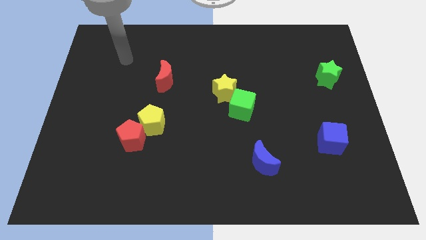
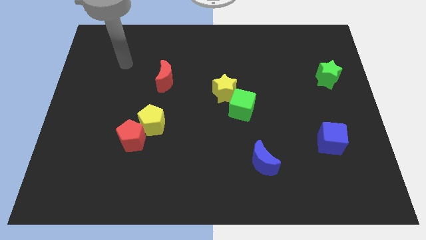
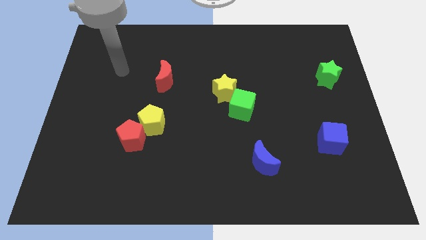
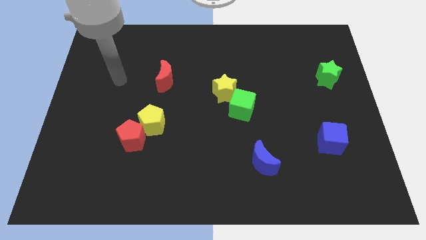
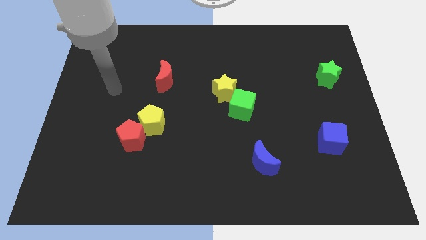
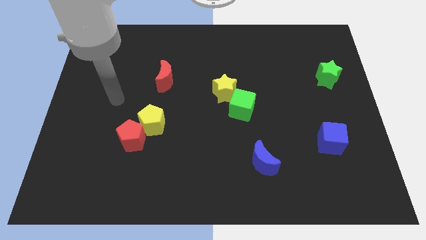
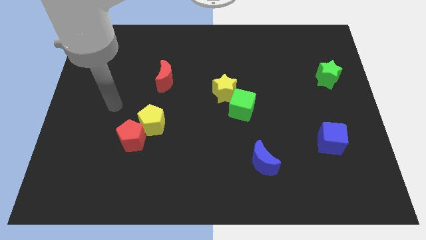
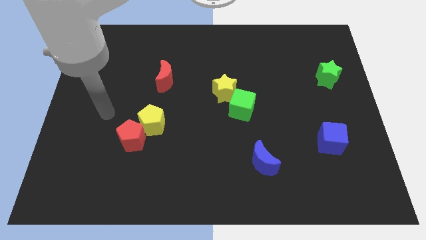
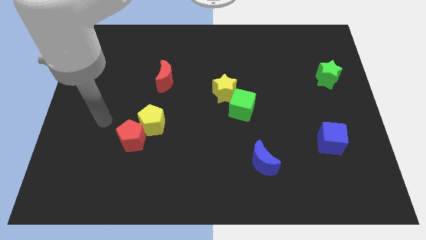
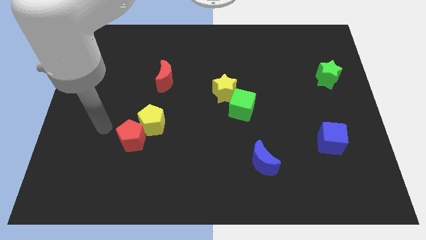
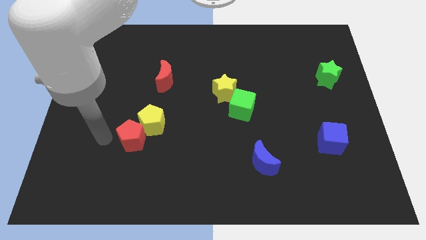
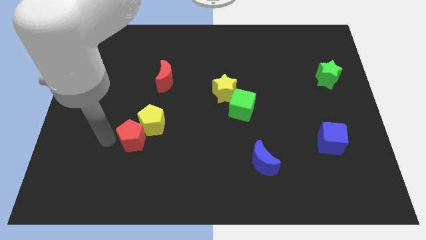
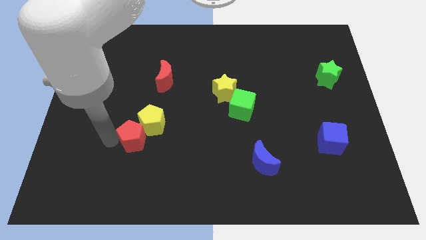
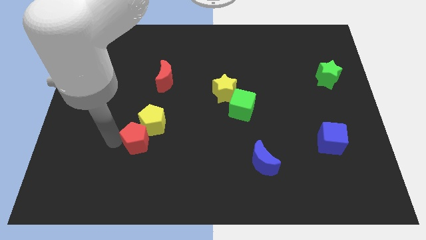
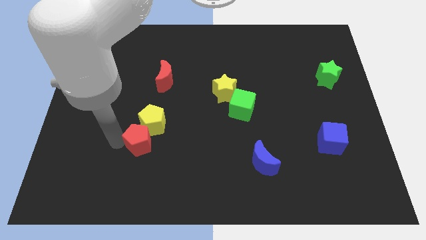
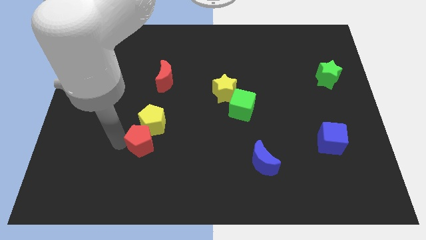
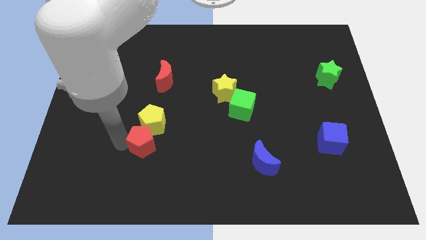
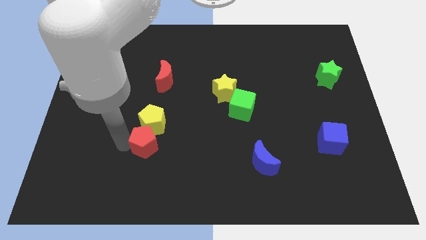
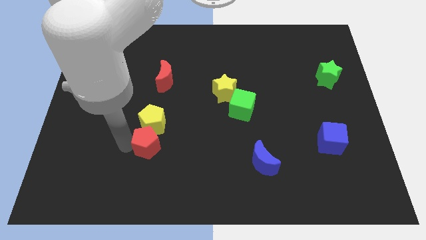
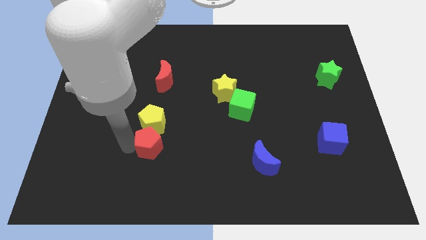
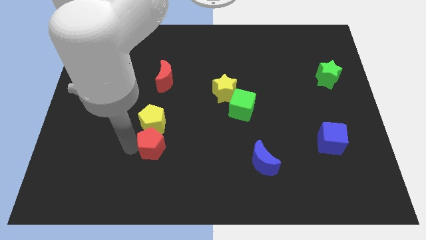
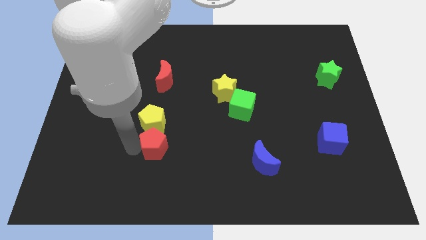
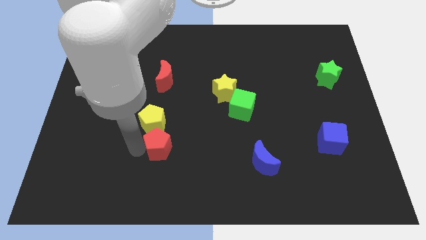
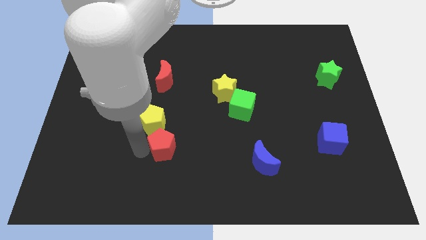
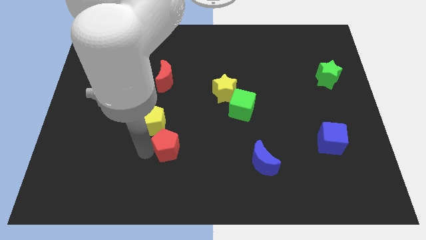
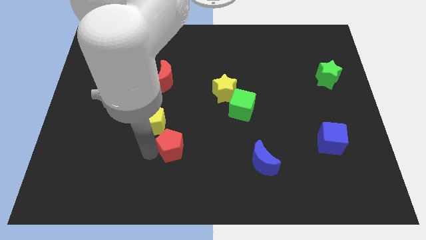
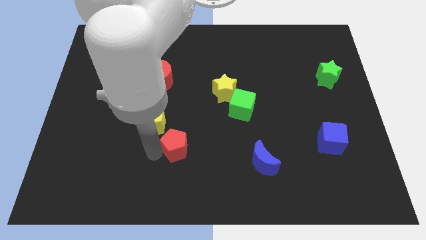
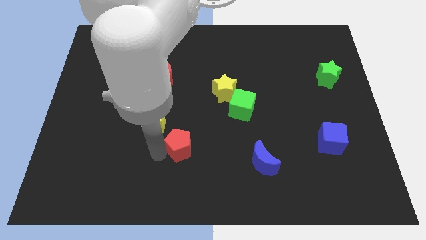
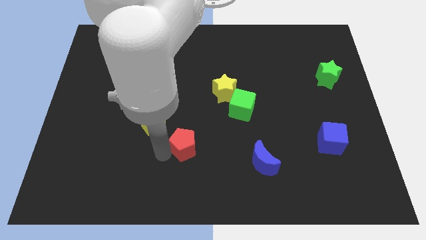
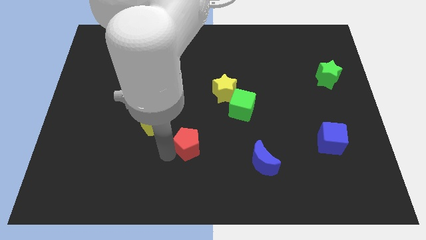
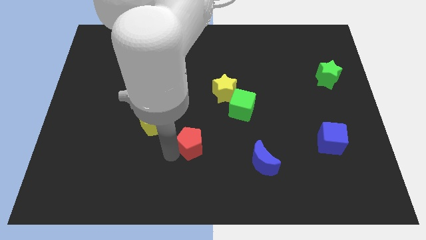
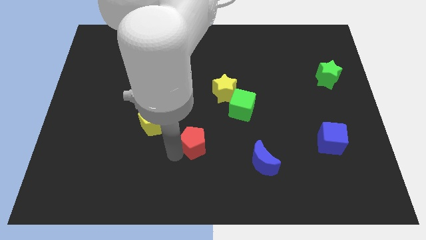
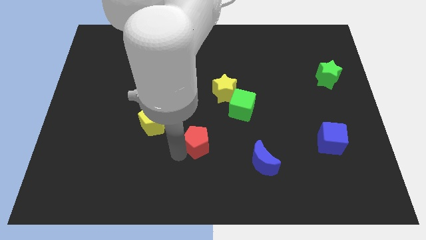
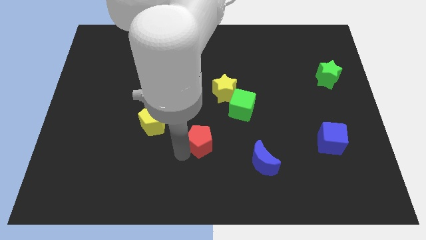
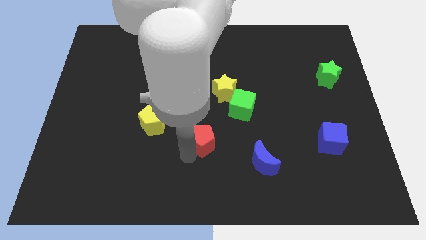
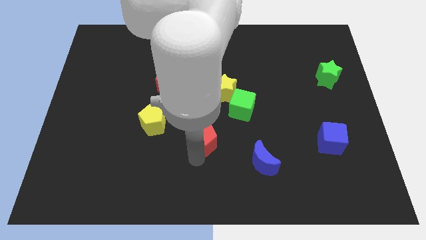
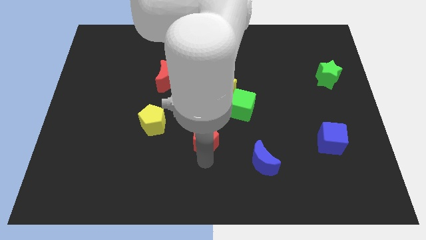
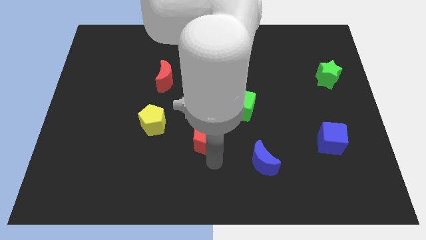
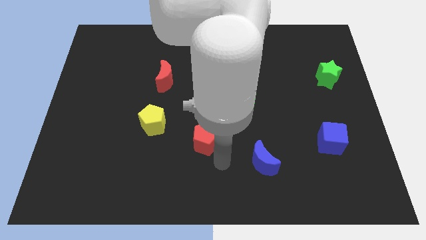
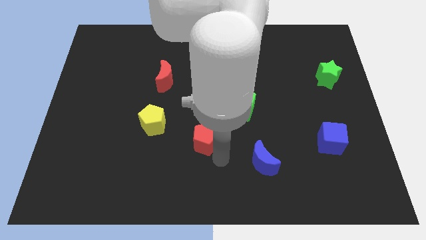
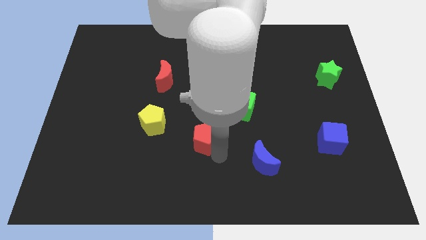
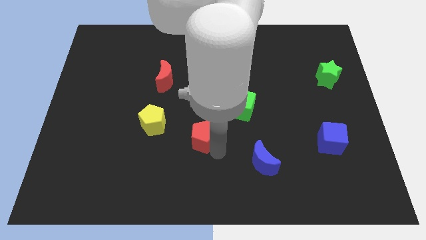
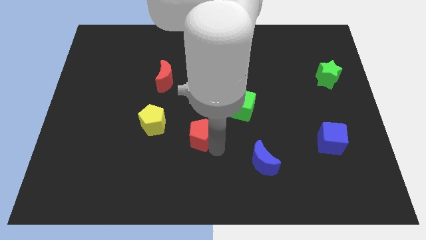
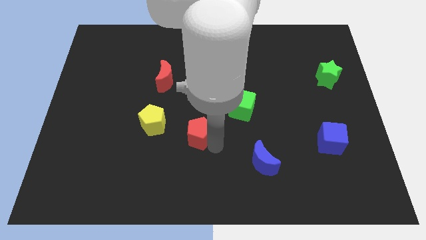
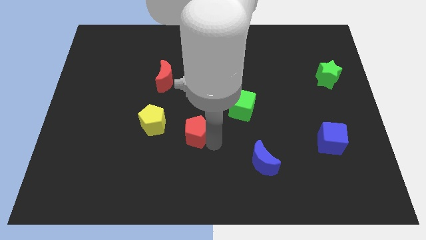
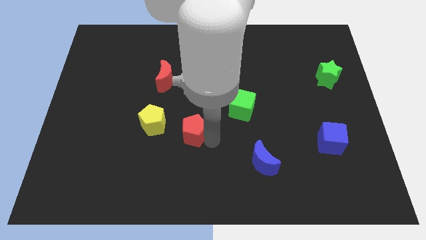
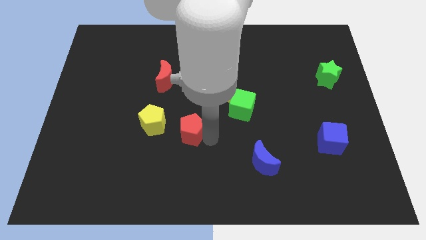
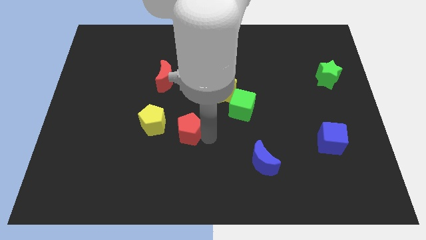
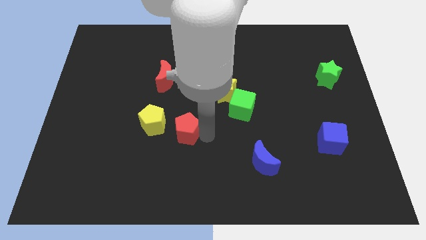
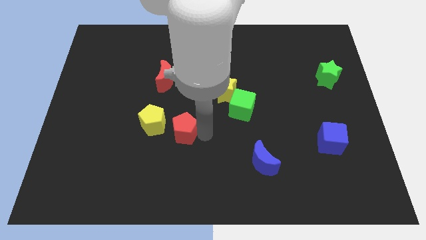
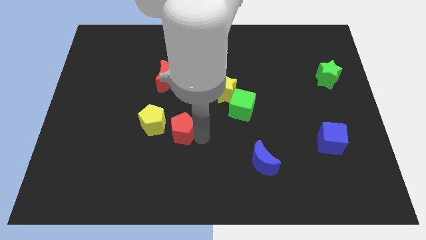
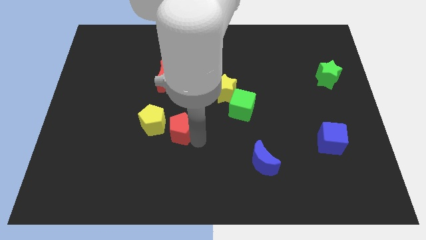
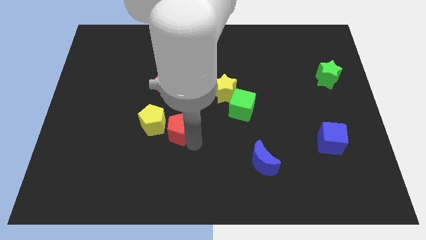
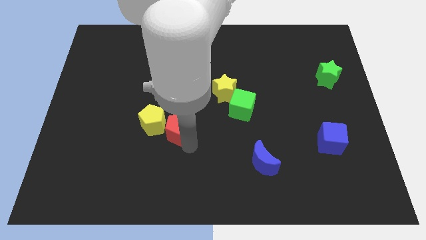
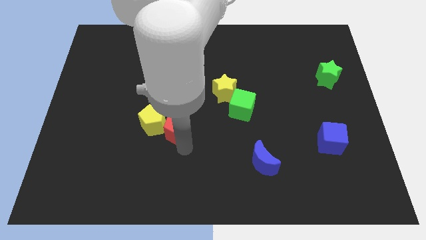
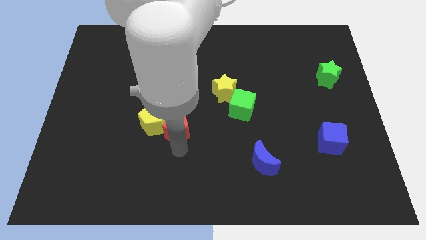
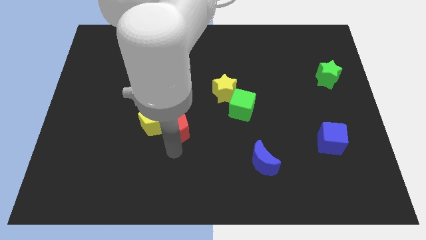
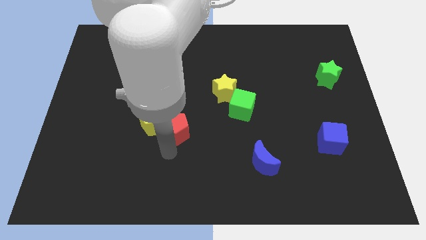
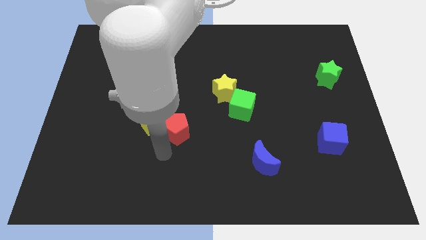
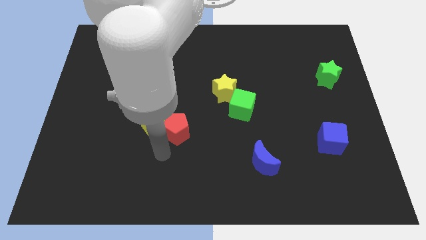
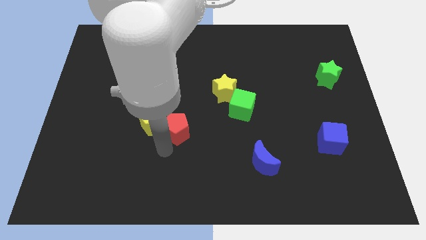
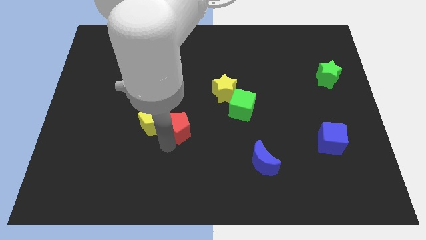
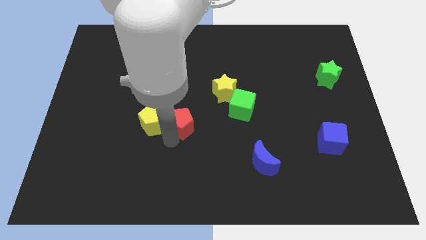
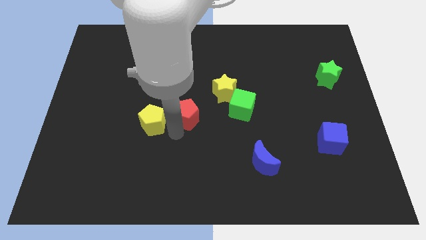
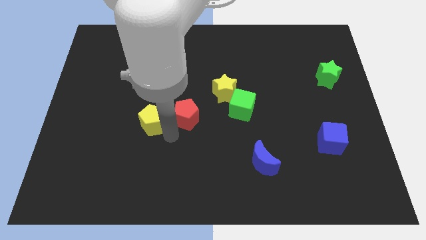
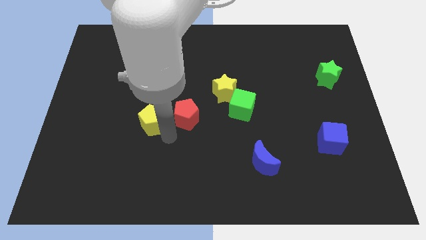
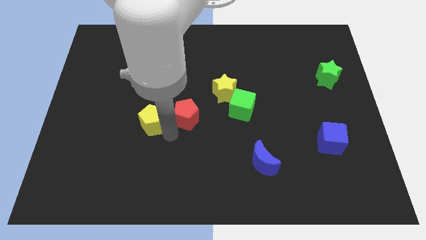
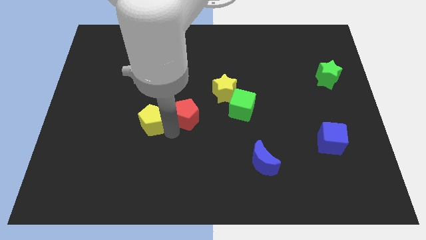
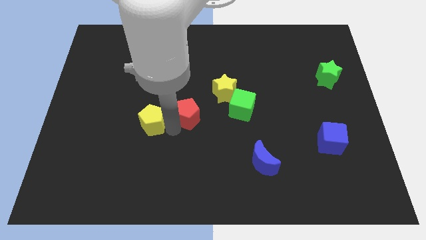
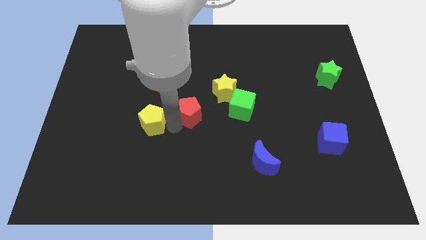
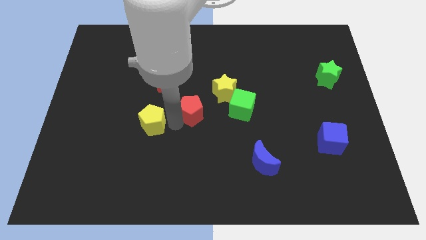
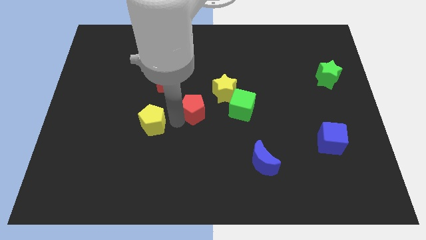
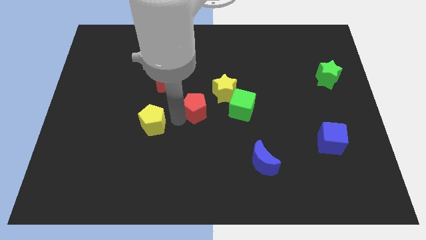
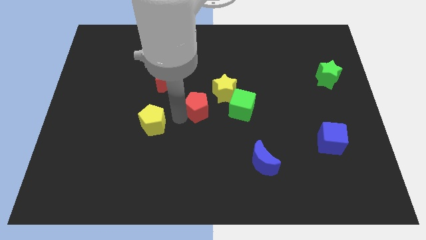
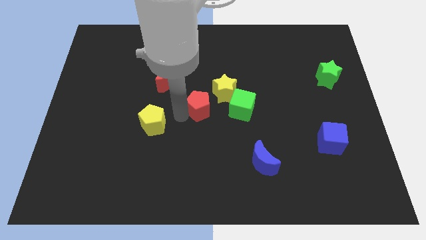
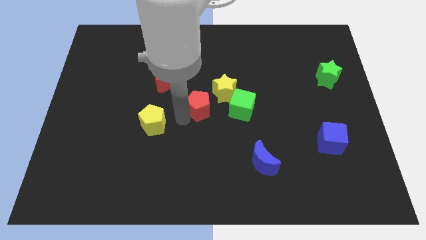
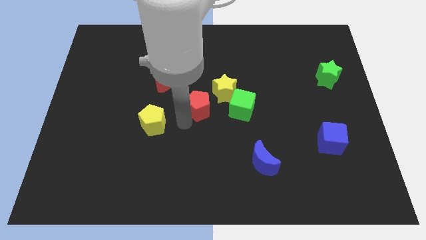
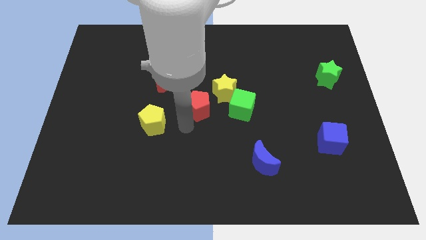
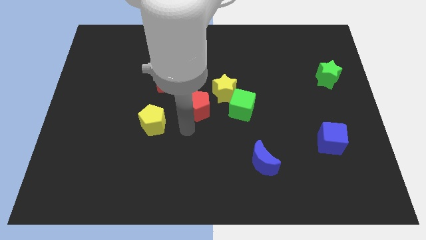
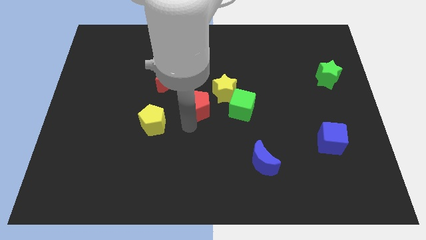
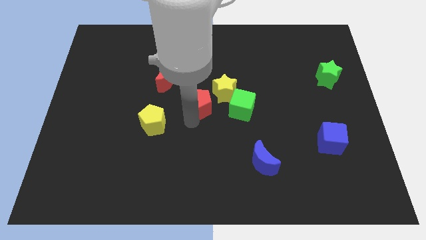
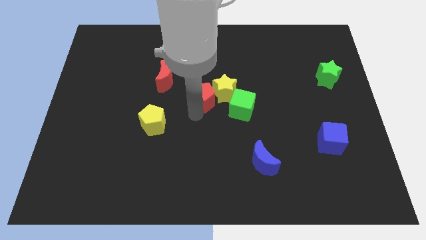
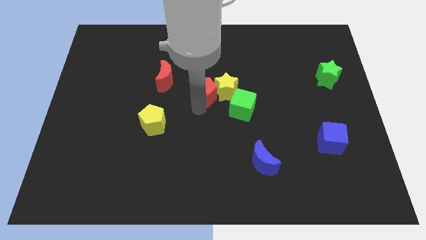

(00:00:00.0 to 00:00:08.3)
slide the red pentagon up and right
